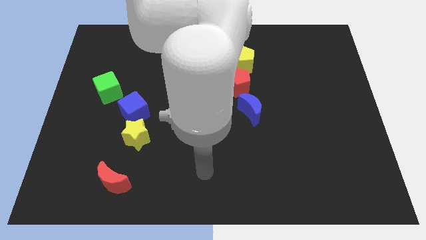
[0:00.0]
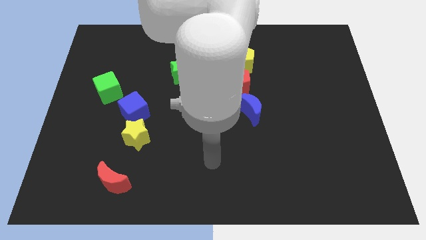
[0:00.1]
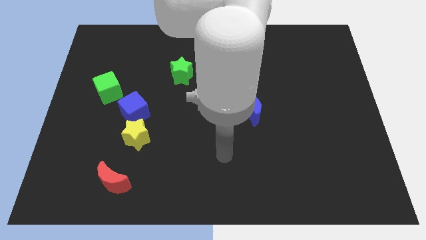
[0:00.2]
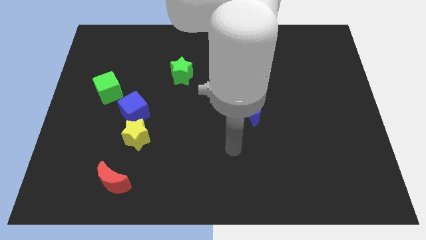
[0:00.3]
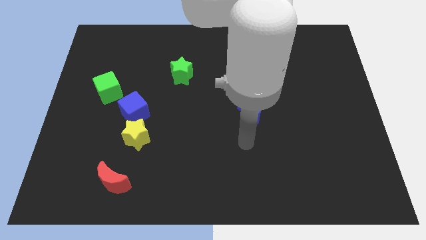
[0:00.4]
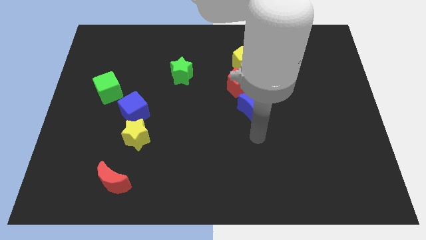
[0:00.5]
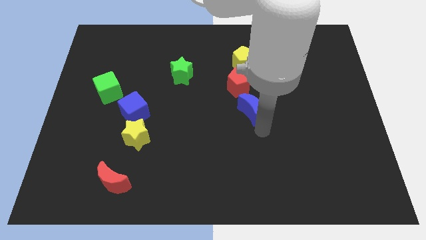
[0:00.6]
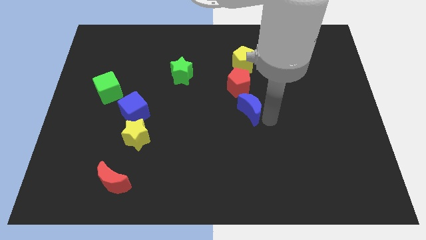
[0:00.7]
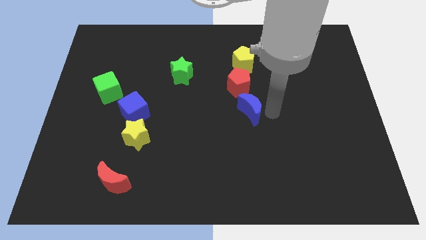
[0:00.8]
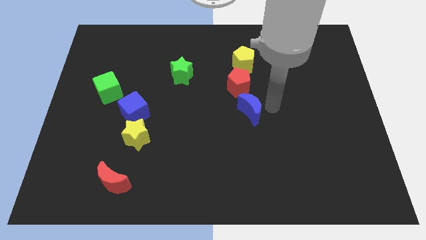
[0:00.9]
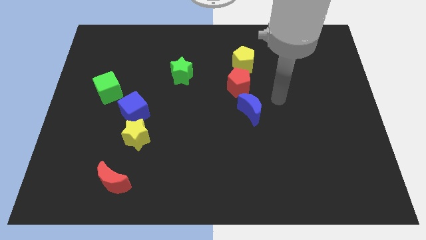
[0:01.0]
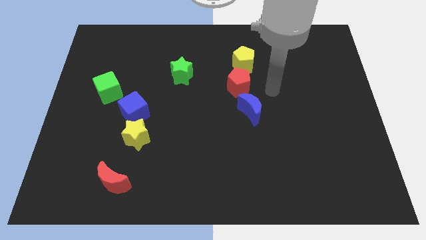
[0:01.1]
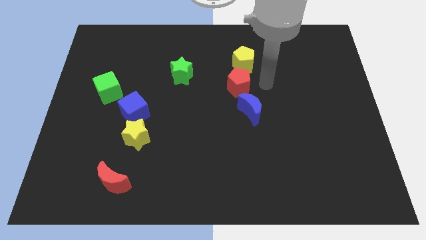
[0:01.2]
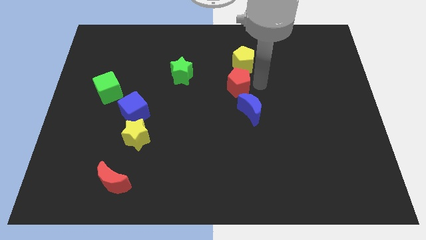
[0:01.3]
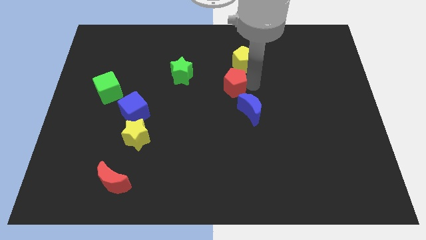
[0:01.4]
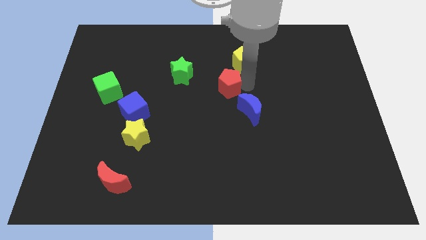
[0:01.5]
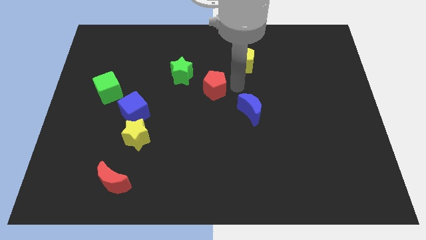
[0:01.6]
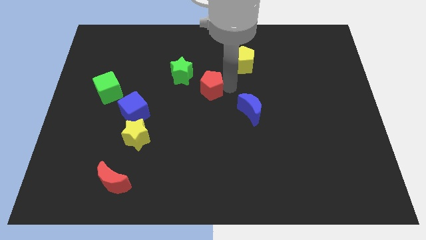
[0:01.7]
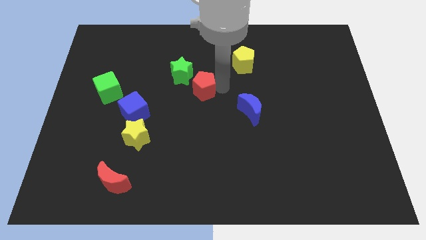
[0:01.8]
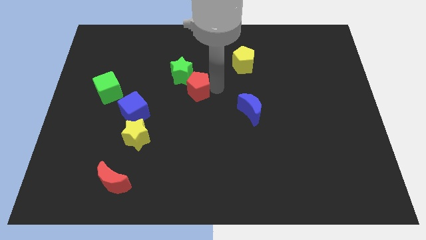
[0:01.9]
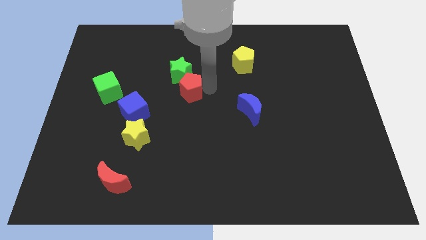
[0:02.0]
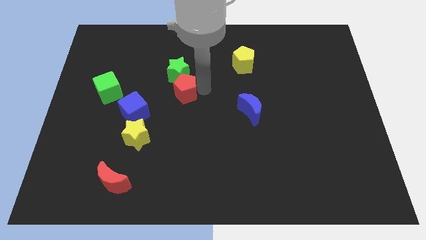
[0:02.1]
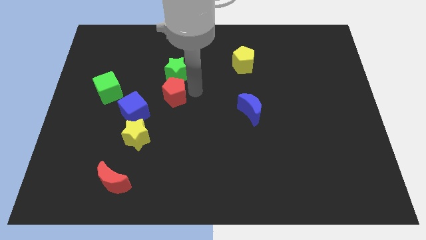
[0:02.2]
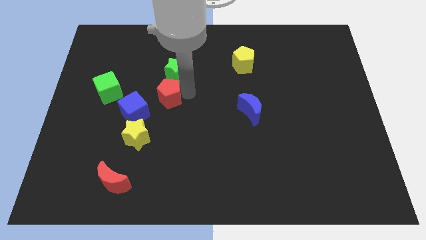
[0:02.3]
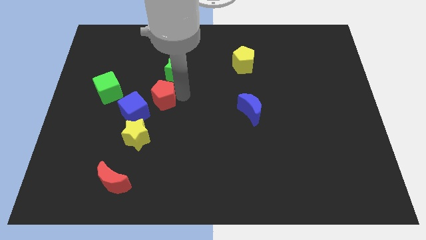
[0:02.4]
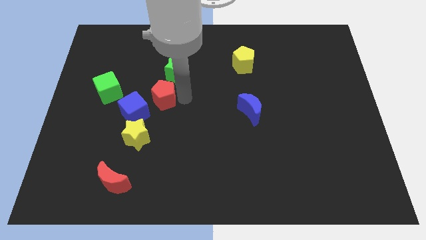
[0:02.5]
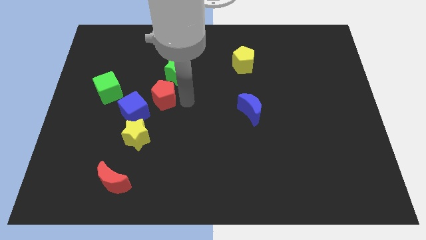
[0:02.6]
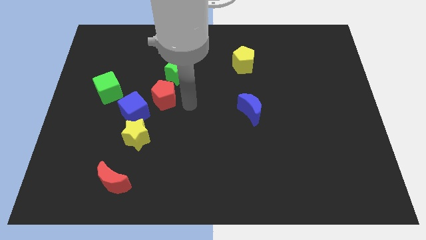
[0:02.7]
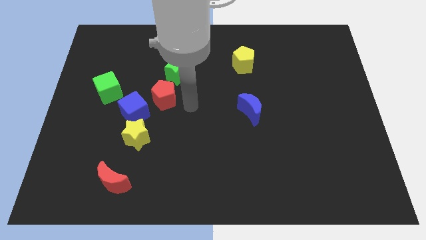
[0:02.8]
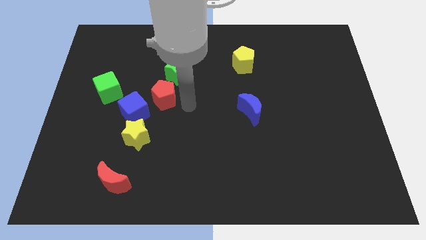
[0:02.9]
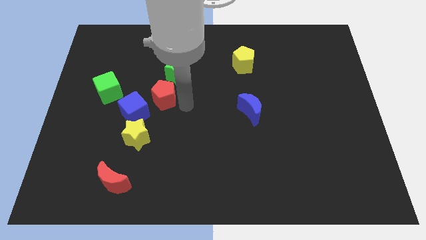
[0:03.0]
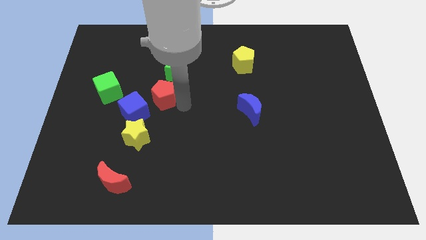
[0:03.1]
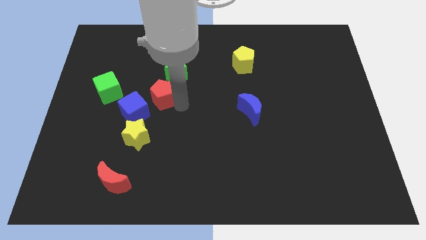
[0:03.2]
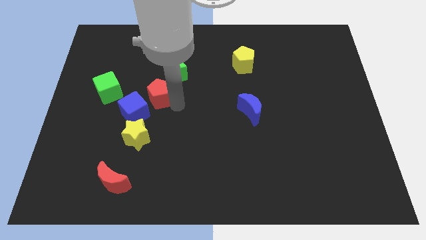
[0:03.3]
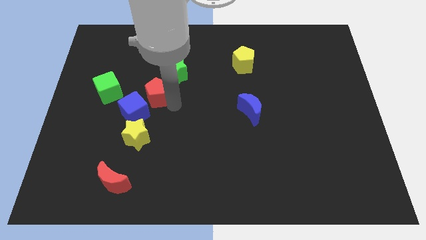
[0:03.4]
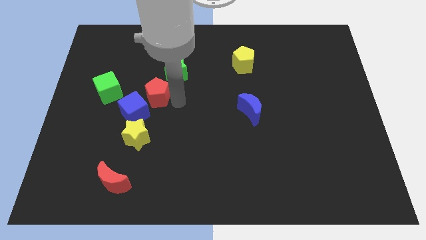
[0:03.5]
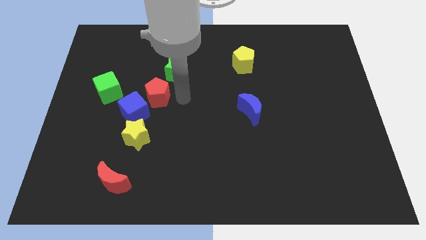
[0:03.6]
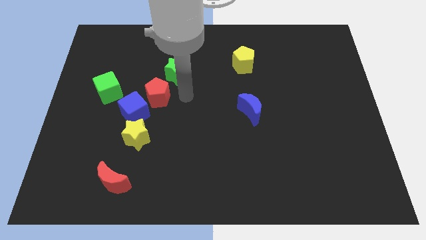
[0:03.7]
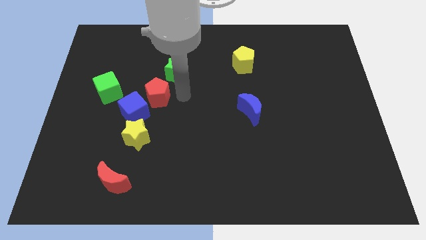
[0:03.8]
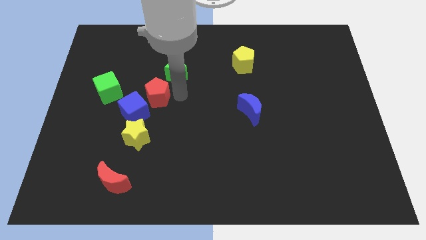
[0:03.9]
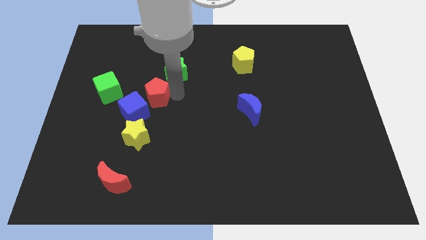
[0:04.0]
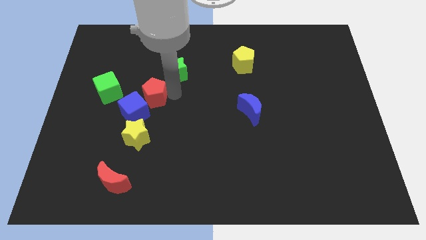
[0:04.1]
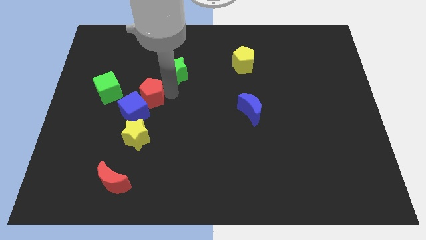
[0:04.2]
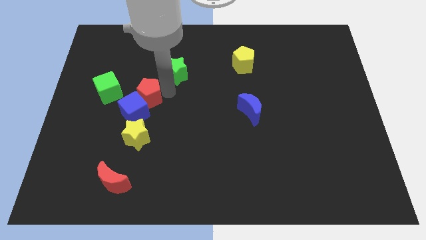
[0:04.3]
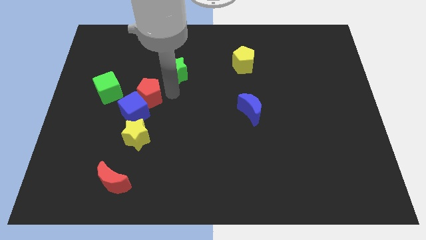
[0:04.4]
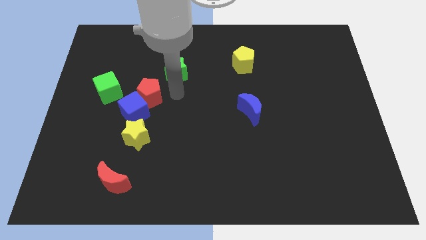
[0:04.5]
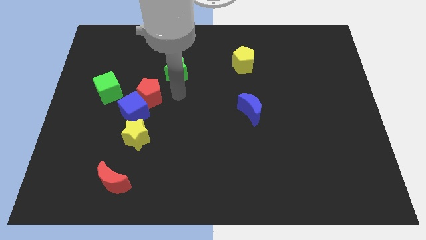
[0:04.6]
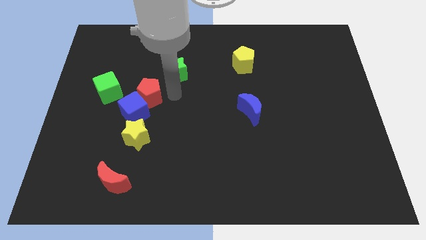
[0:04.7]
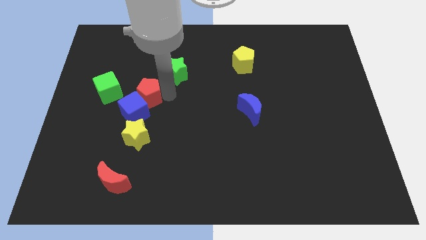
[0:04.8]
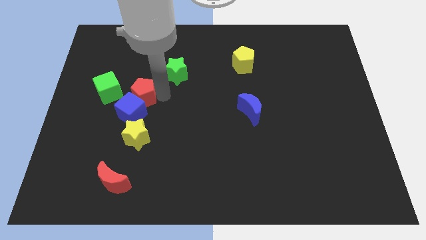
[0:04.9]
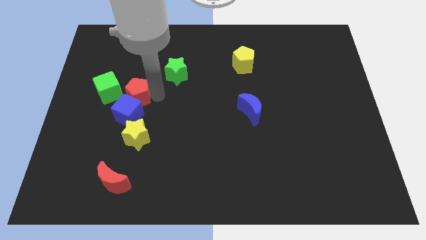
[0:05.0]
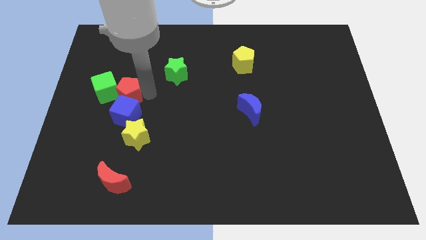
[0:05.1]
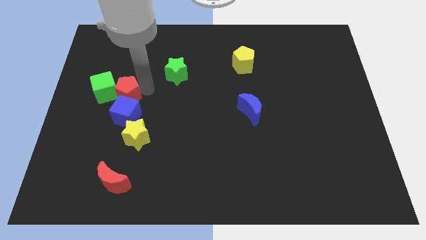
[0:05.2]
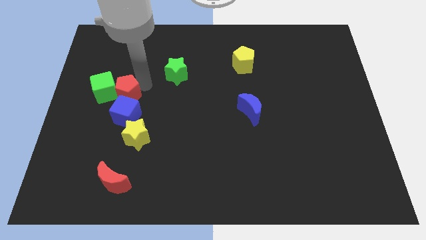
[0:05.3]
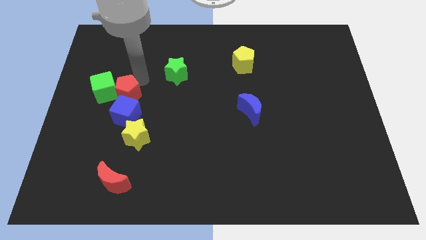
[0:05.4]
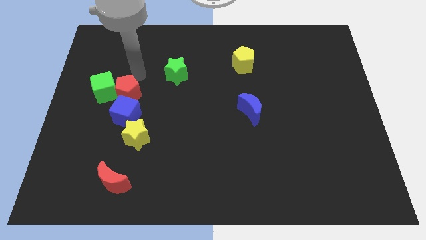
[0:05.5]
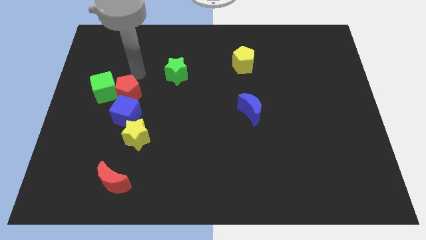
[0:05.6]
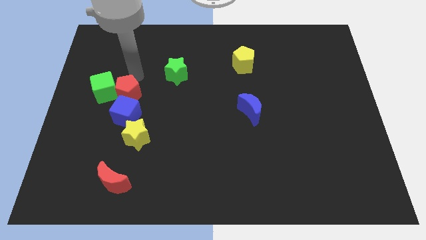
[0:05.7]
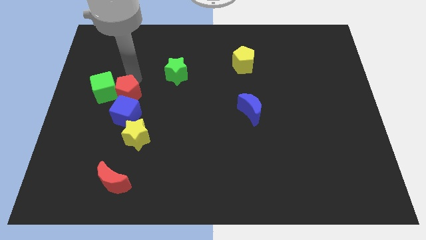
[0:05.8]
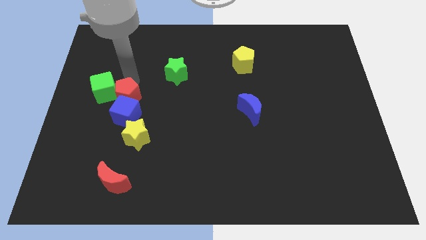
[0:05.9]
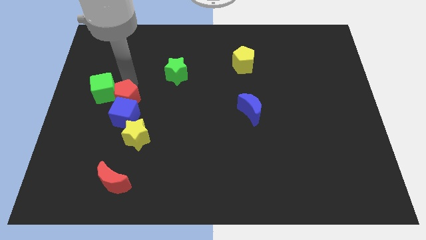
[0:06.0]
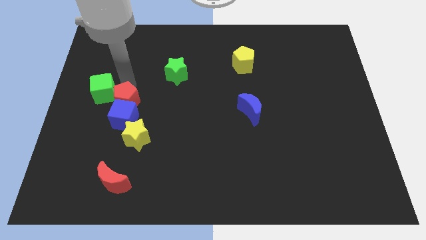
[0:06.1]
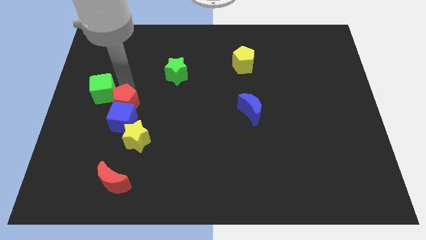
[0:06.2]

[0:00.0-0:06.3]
slide the red pentagon to the top left of the yellow star

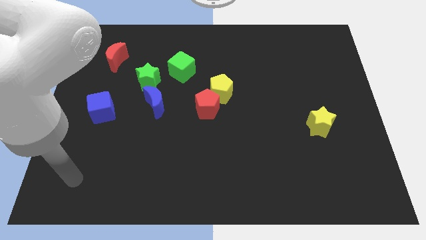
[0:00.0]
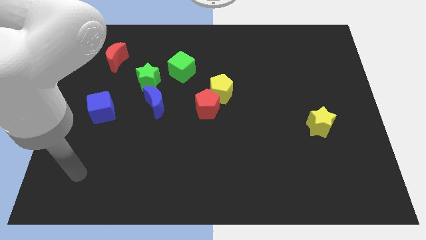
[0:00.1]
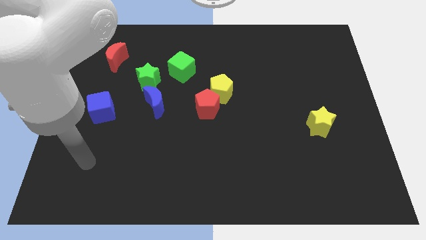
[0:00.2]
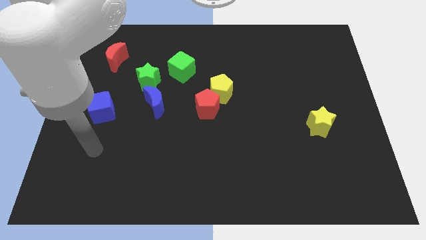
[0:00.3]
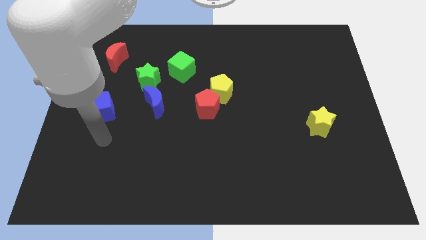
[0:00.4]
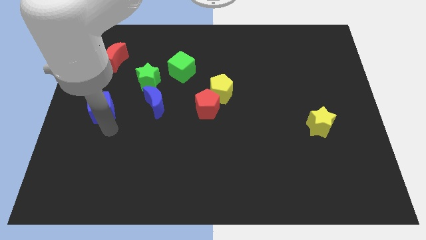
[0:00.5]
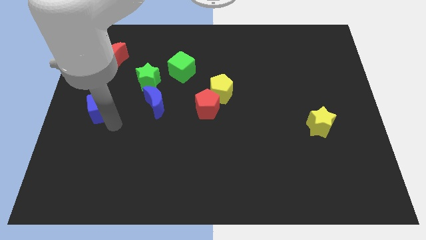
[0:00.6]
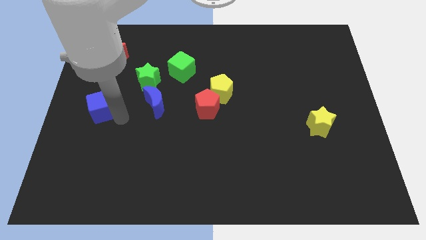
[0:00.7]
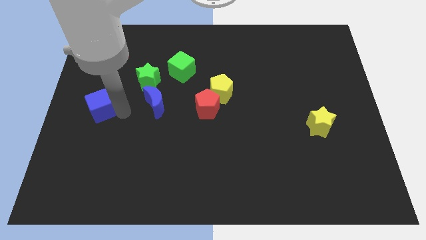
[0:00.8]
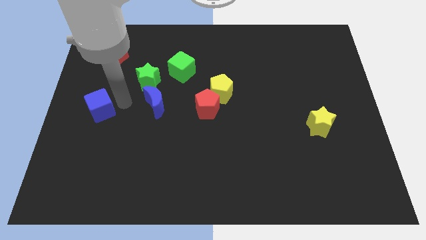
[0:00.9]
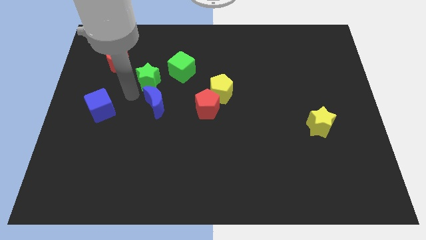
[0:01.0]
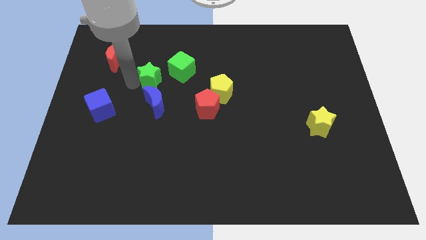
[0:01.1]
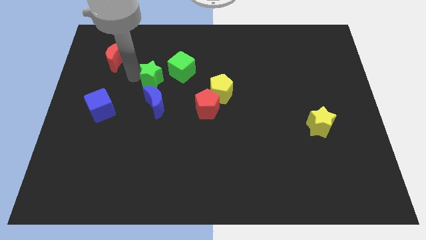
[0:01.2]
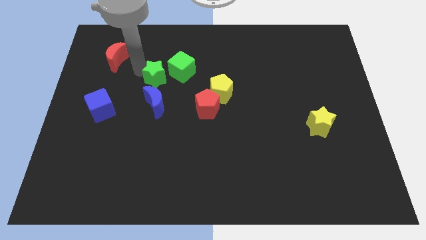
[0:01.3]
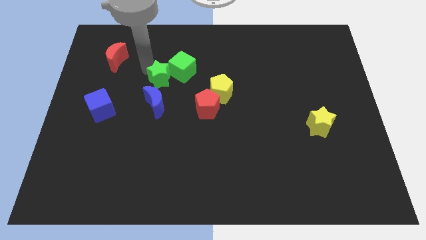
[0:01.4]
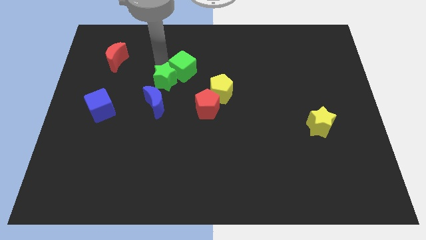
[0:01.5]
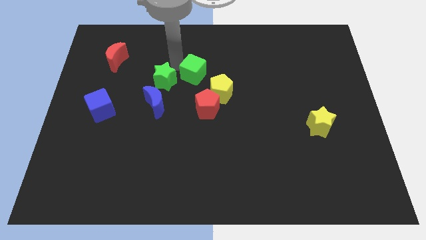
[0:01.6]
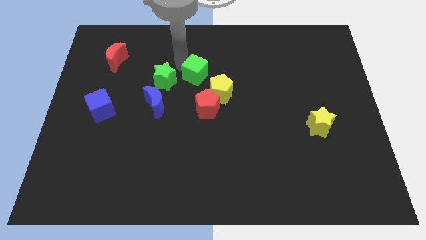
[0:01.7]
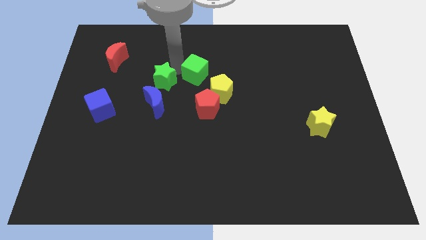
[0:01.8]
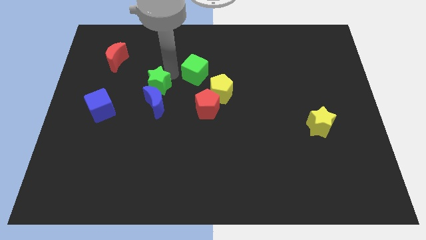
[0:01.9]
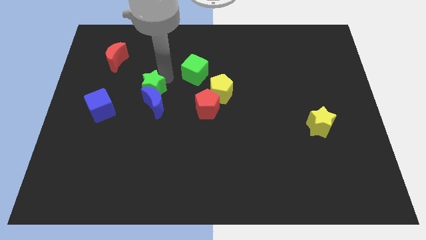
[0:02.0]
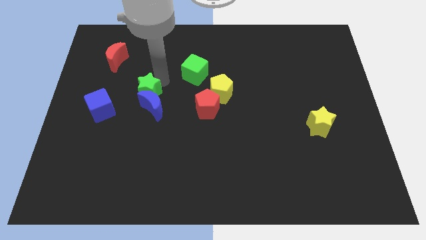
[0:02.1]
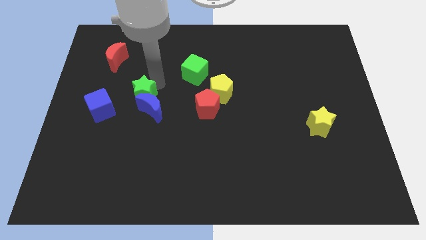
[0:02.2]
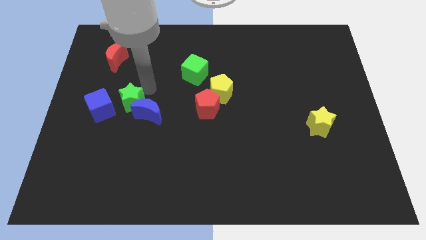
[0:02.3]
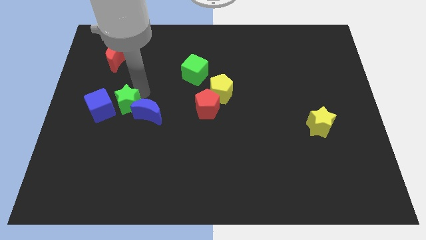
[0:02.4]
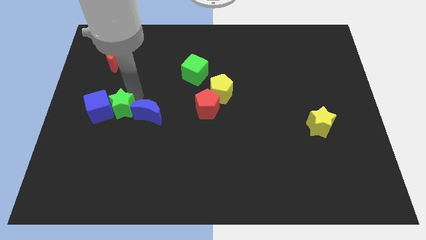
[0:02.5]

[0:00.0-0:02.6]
slide the green star to the bottom right of the blue cube
